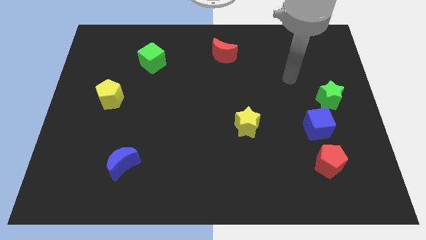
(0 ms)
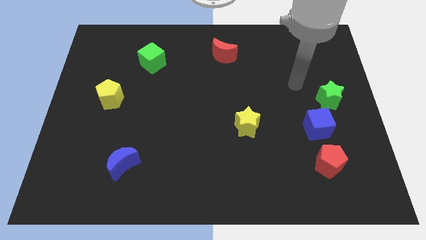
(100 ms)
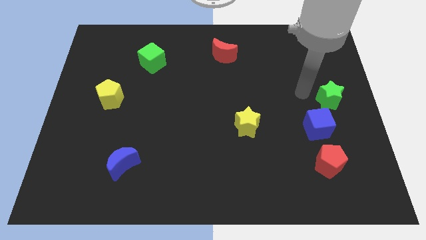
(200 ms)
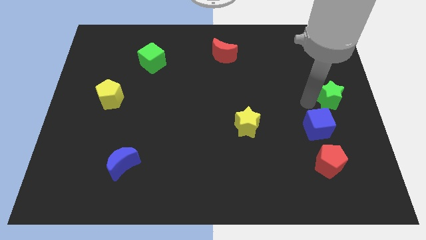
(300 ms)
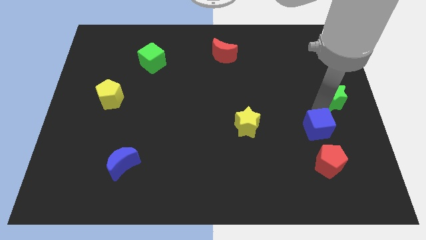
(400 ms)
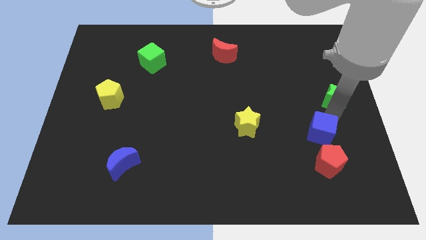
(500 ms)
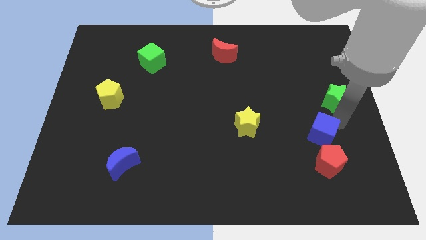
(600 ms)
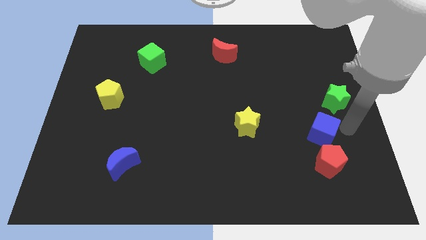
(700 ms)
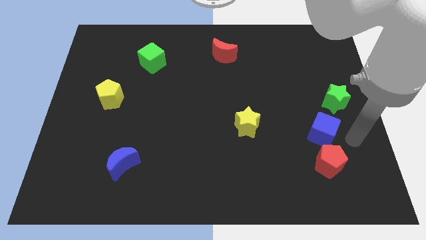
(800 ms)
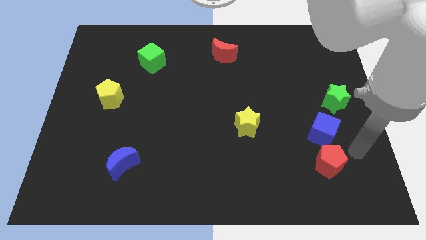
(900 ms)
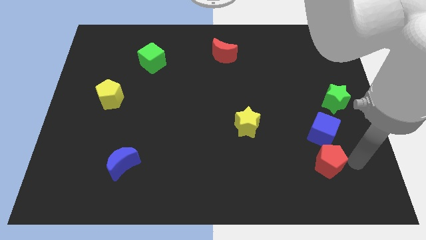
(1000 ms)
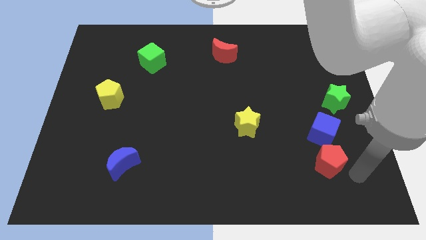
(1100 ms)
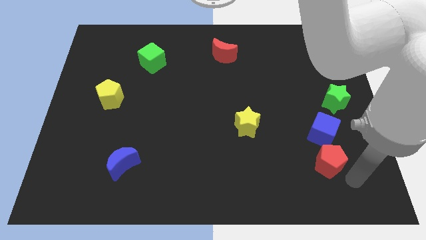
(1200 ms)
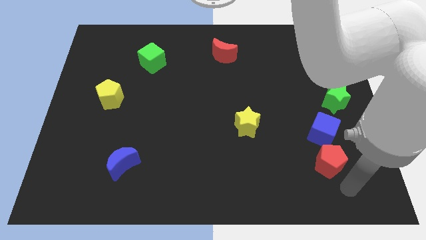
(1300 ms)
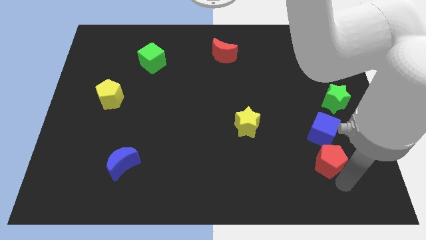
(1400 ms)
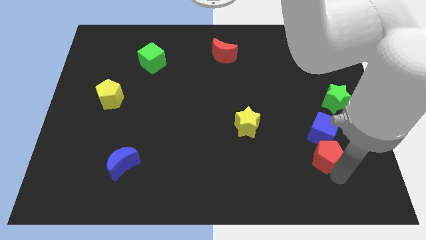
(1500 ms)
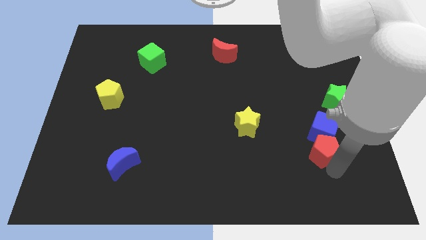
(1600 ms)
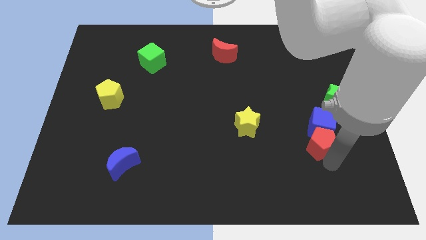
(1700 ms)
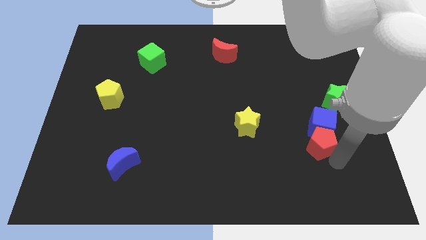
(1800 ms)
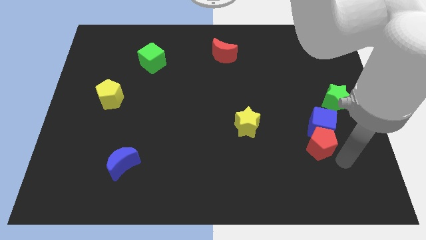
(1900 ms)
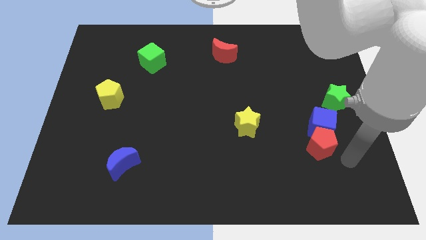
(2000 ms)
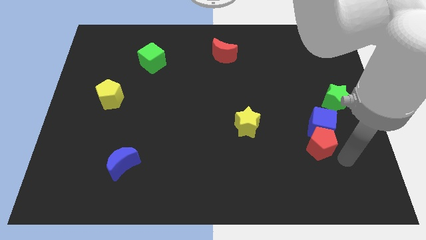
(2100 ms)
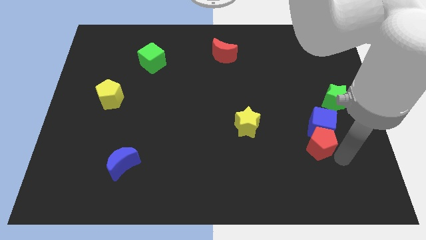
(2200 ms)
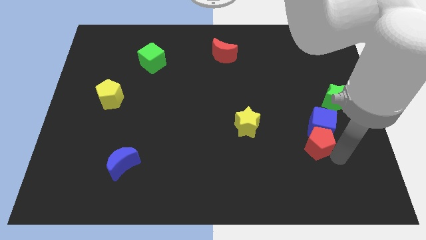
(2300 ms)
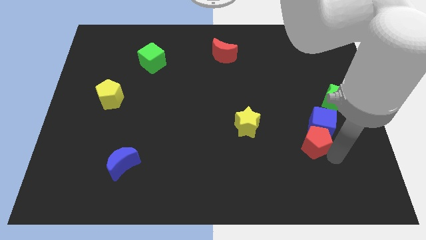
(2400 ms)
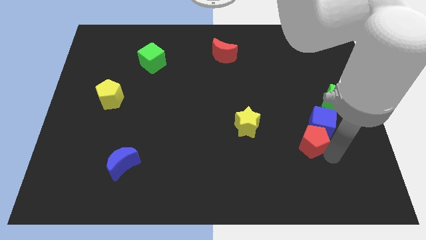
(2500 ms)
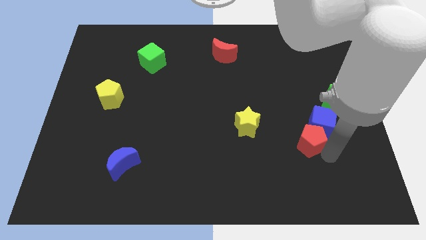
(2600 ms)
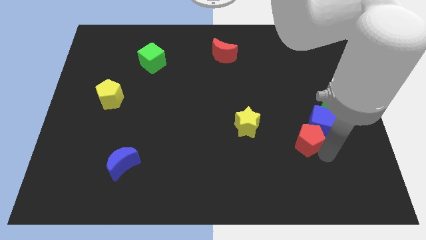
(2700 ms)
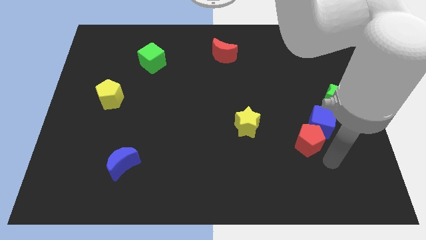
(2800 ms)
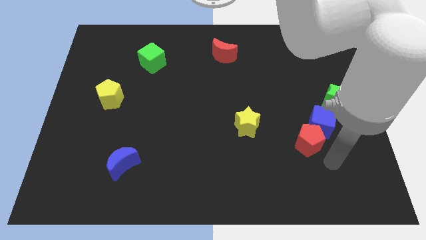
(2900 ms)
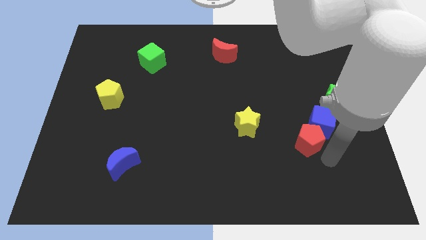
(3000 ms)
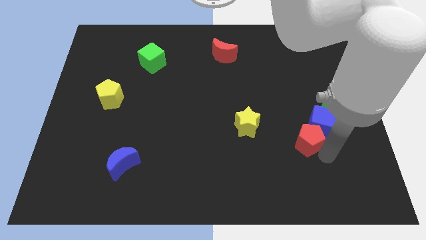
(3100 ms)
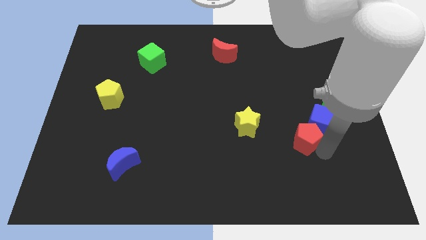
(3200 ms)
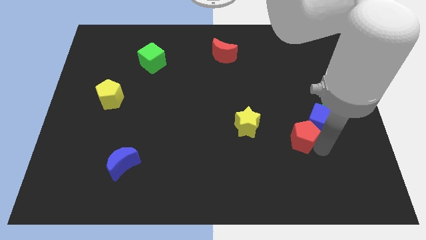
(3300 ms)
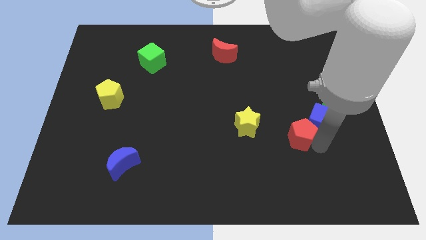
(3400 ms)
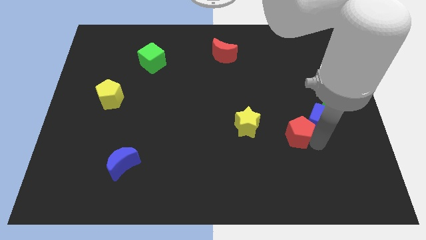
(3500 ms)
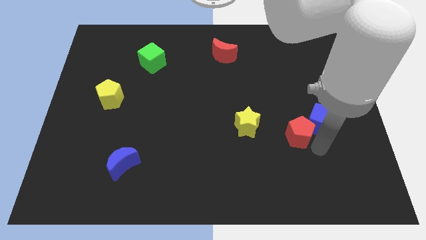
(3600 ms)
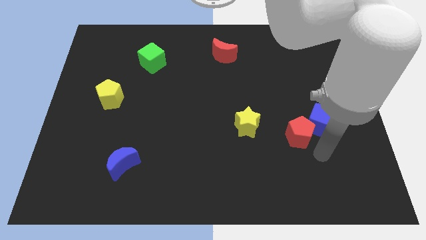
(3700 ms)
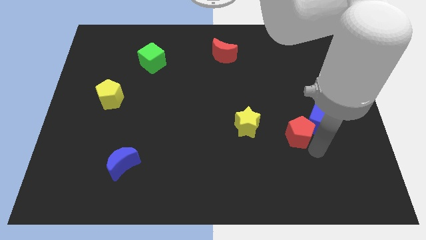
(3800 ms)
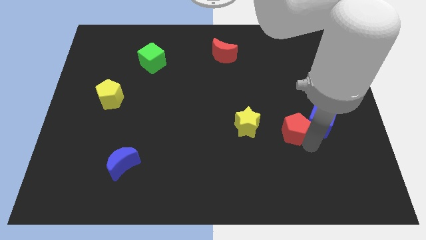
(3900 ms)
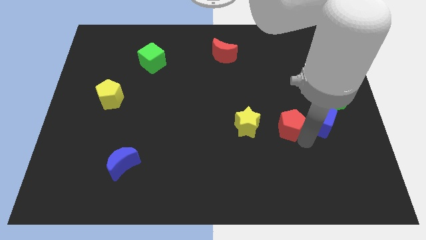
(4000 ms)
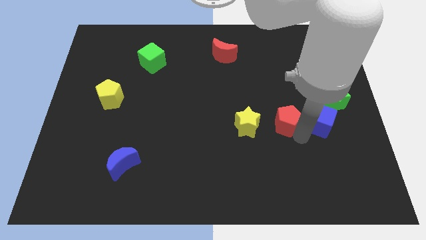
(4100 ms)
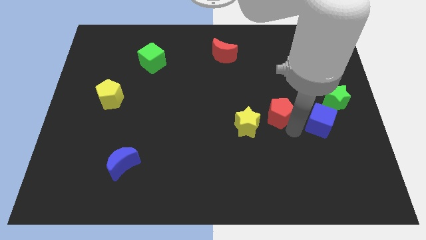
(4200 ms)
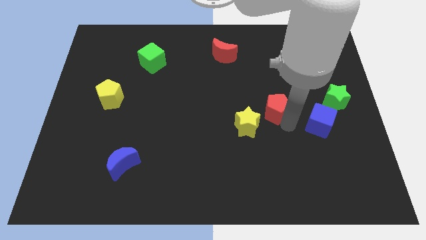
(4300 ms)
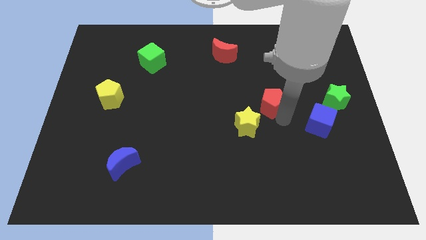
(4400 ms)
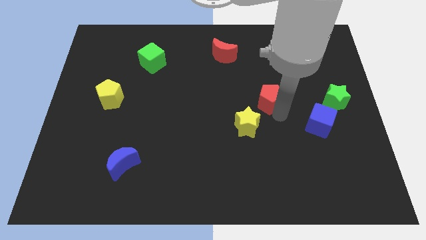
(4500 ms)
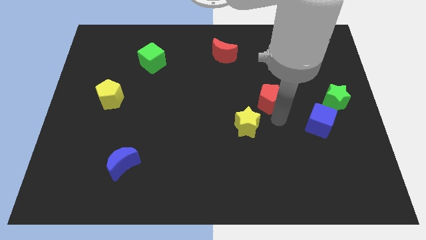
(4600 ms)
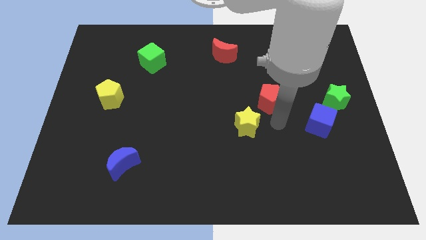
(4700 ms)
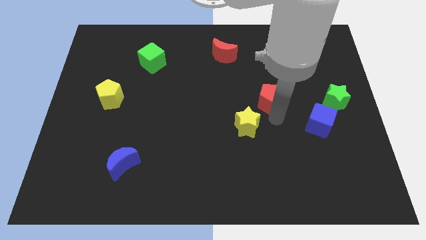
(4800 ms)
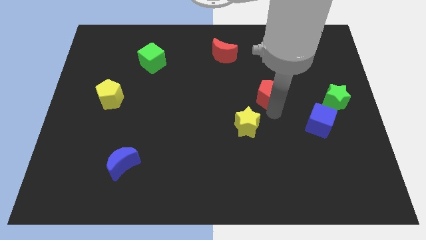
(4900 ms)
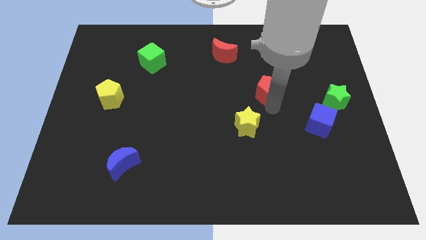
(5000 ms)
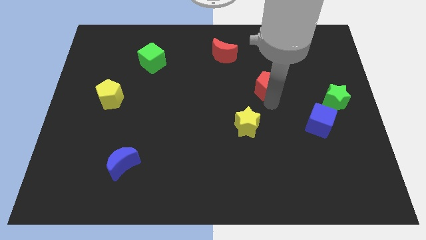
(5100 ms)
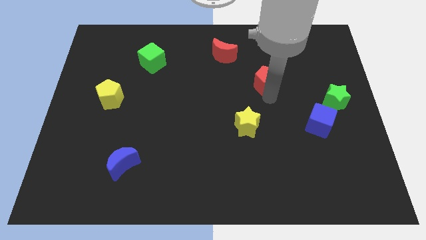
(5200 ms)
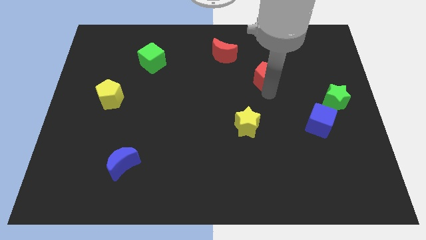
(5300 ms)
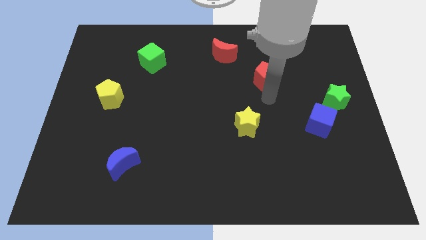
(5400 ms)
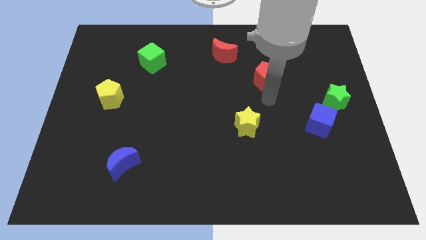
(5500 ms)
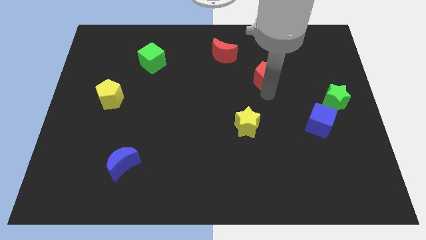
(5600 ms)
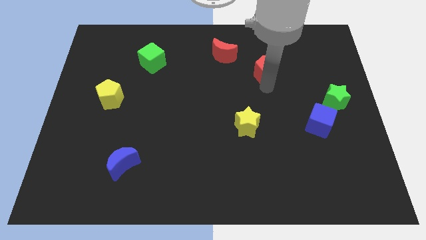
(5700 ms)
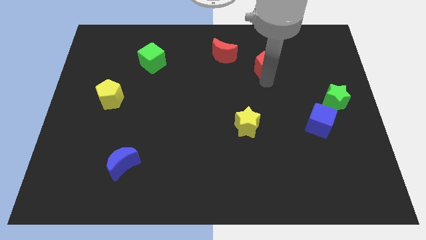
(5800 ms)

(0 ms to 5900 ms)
put the red pentagon to the right of the red moon
